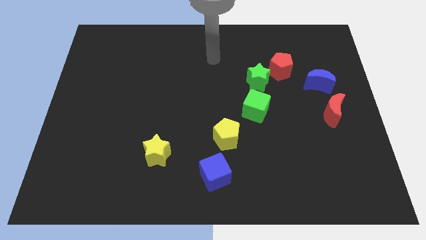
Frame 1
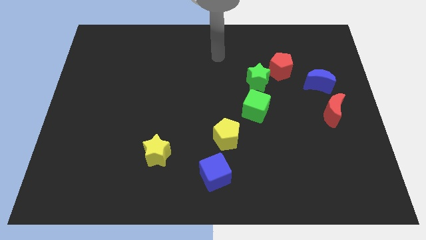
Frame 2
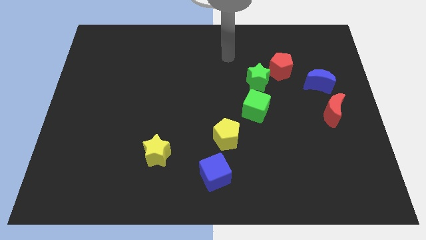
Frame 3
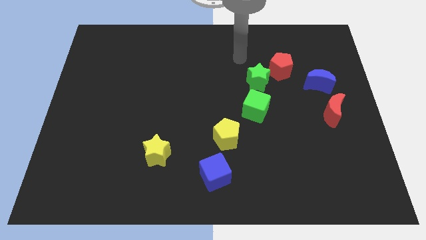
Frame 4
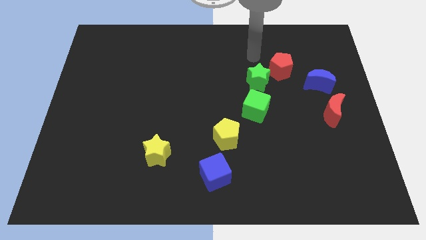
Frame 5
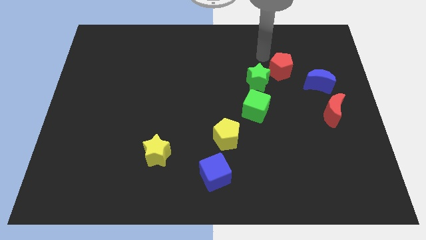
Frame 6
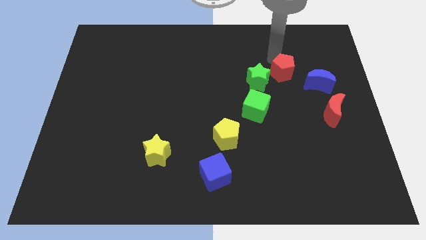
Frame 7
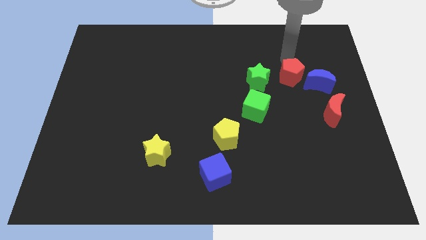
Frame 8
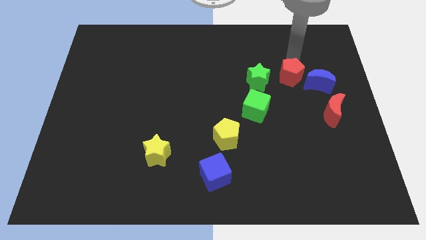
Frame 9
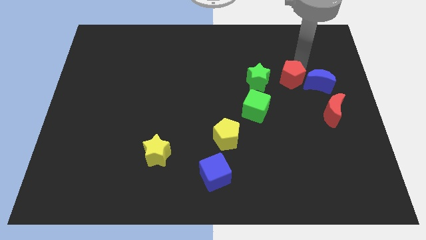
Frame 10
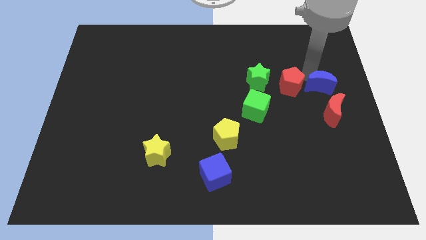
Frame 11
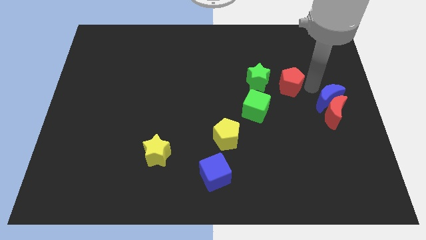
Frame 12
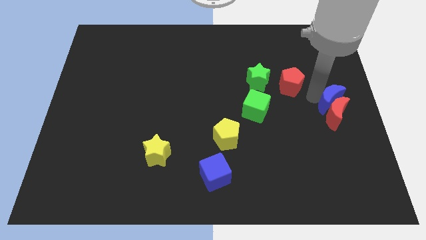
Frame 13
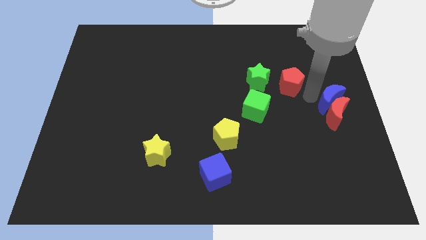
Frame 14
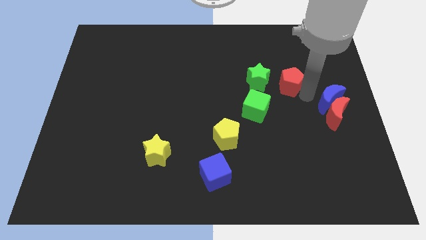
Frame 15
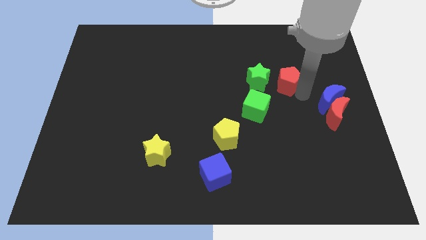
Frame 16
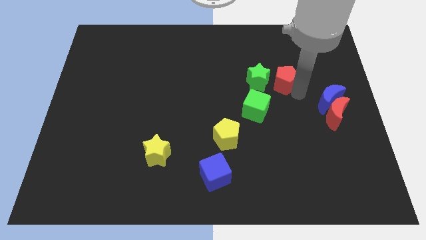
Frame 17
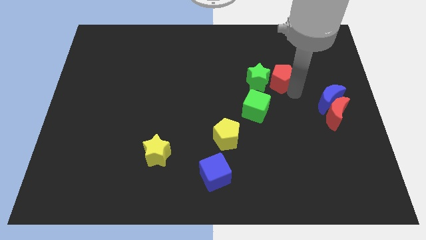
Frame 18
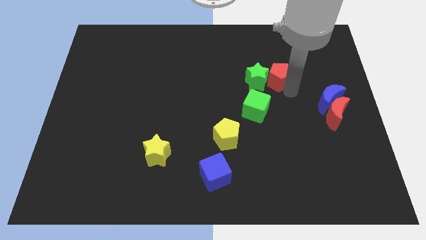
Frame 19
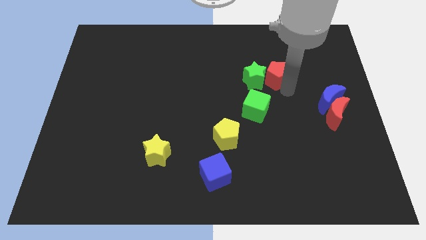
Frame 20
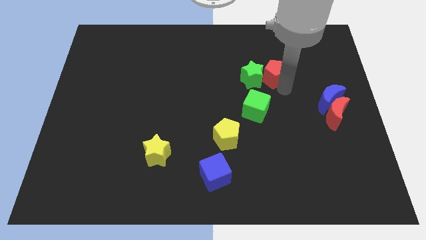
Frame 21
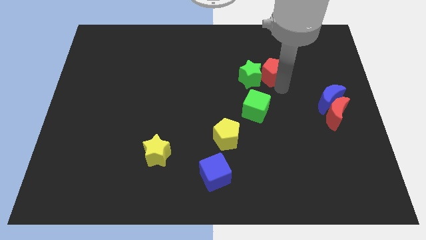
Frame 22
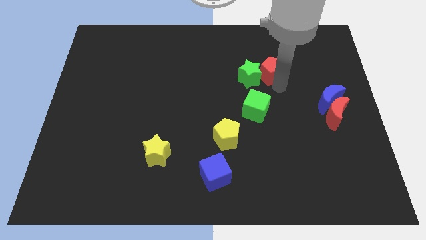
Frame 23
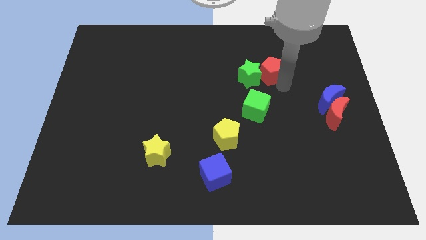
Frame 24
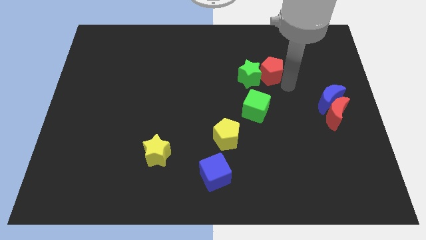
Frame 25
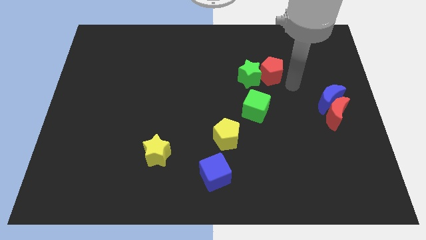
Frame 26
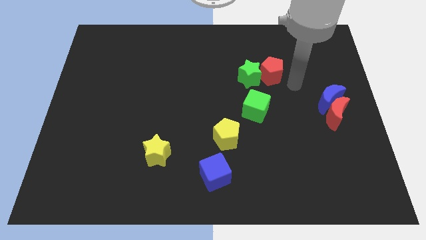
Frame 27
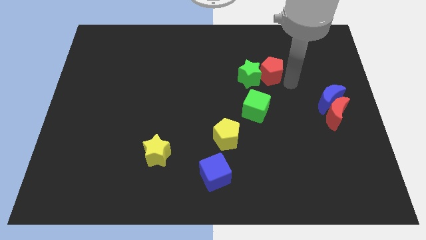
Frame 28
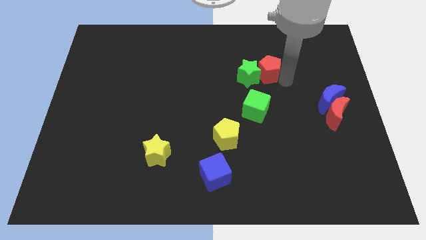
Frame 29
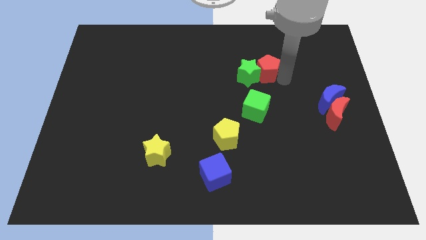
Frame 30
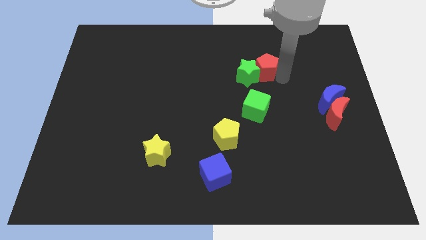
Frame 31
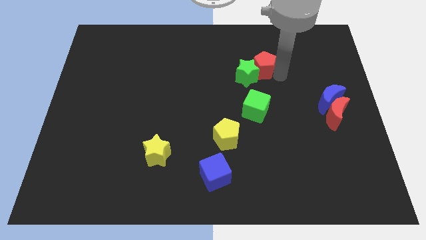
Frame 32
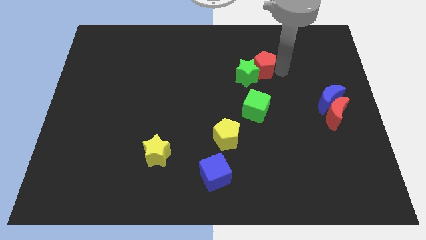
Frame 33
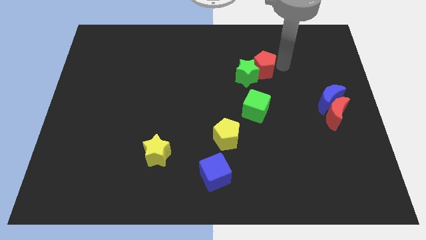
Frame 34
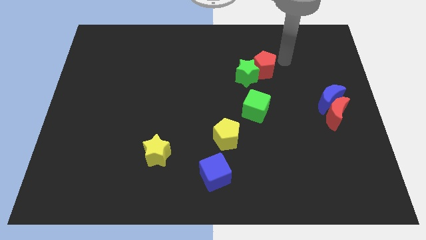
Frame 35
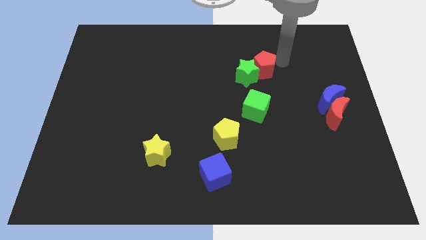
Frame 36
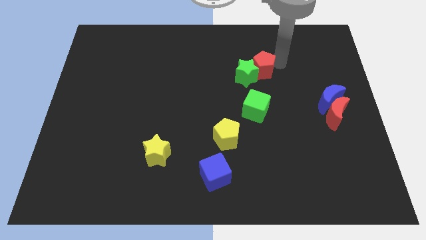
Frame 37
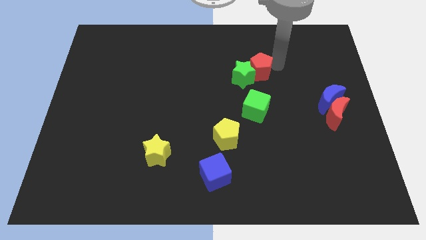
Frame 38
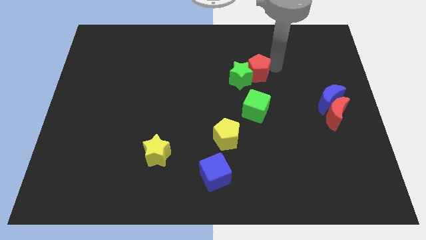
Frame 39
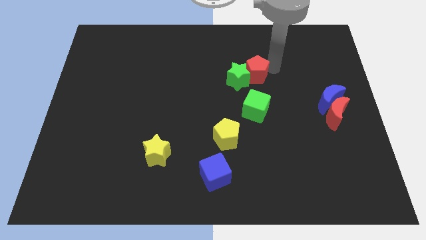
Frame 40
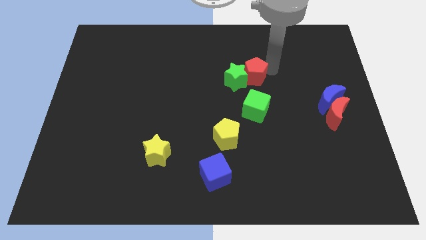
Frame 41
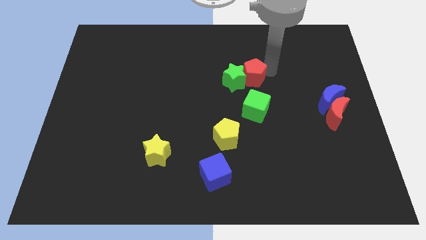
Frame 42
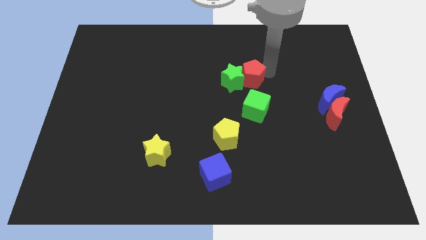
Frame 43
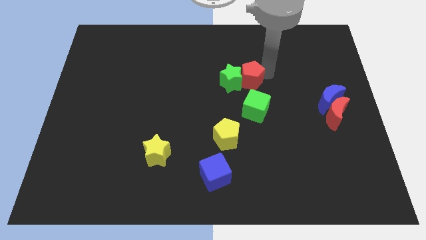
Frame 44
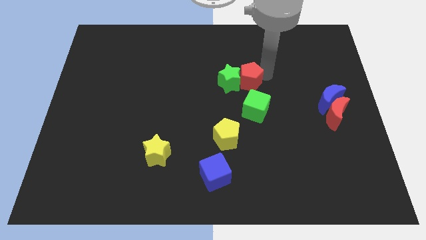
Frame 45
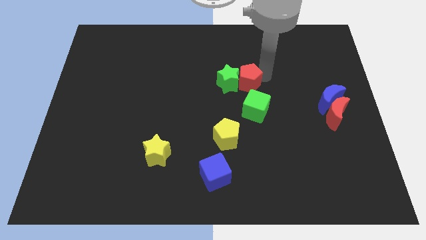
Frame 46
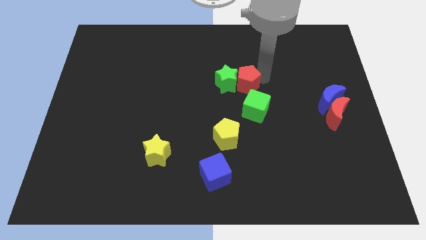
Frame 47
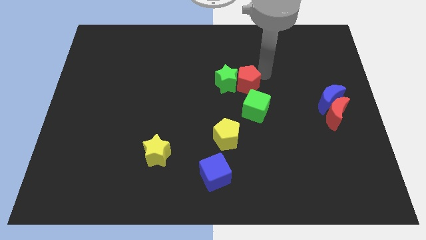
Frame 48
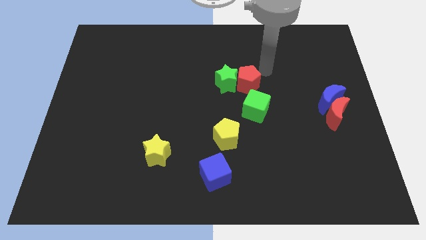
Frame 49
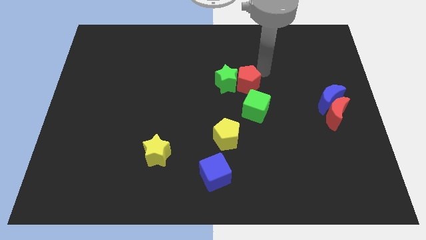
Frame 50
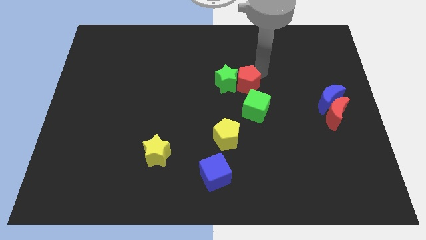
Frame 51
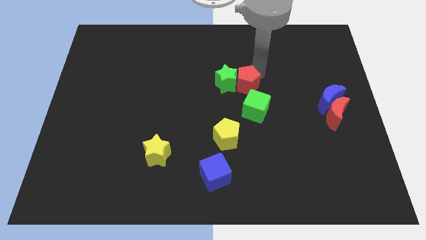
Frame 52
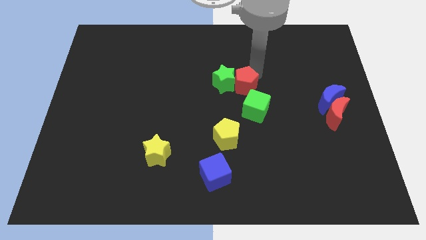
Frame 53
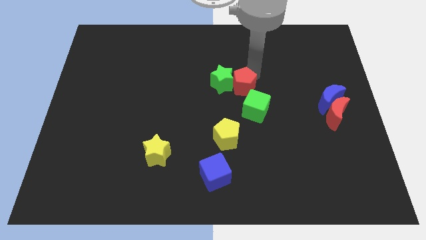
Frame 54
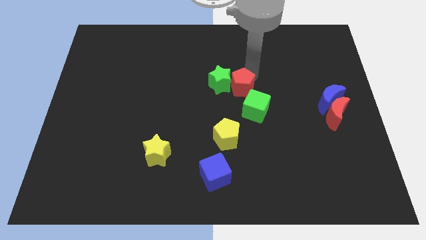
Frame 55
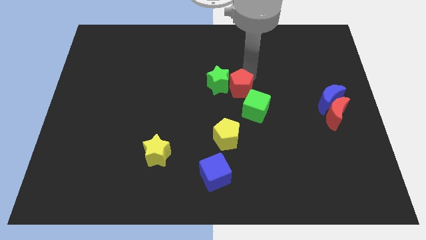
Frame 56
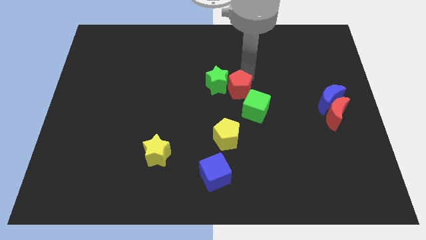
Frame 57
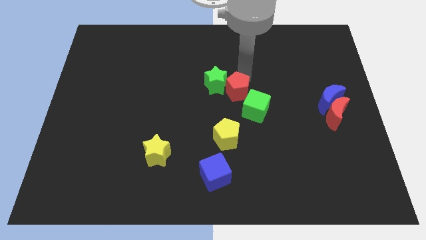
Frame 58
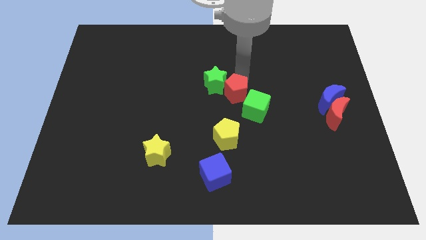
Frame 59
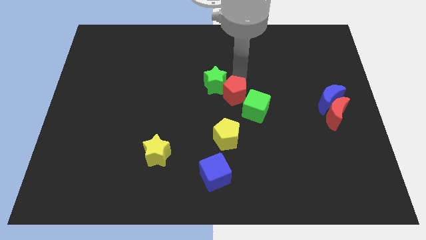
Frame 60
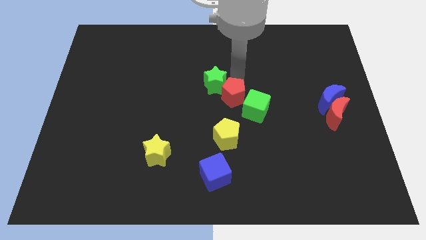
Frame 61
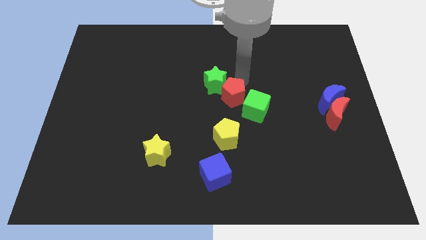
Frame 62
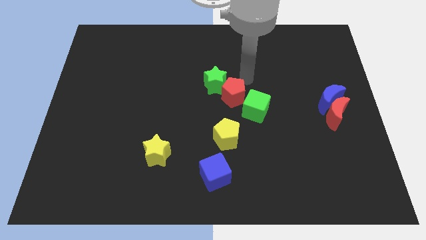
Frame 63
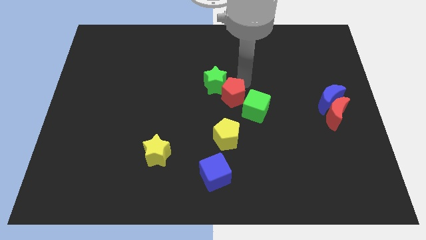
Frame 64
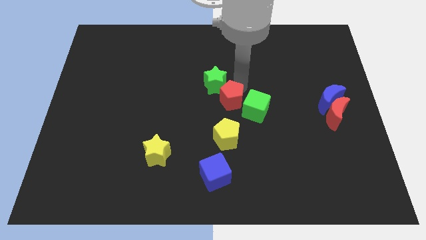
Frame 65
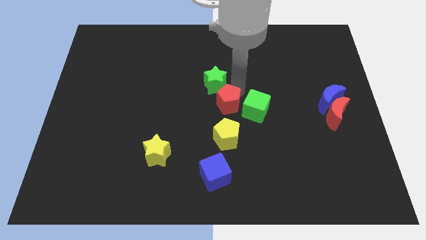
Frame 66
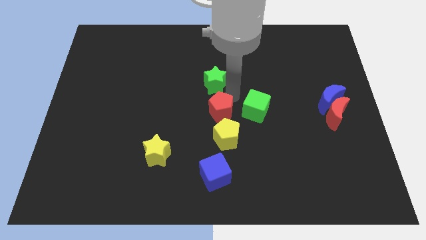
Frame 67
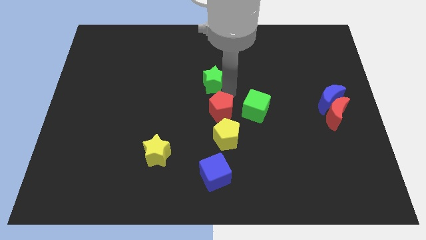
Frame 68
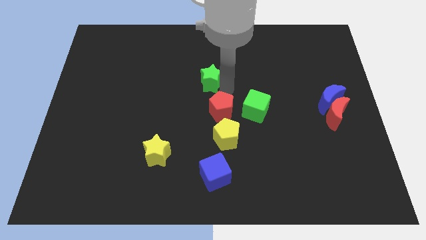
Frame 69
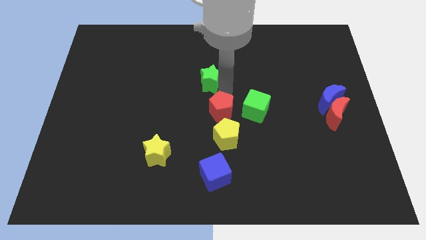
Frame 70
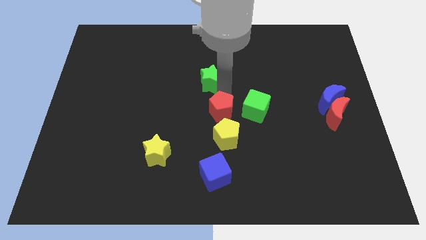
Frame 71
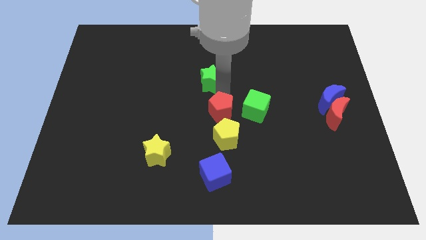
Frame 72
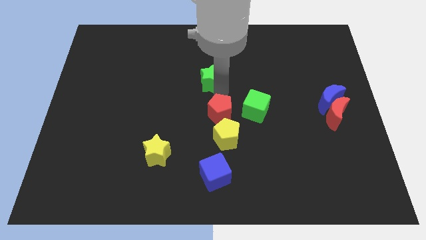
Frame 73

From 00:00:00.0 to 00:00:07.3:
push the red pentagon to the top of the blue cube
